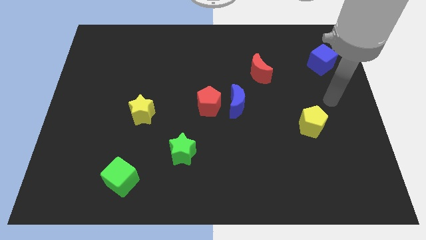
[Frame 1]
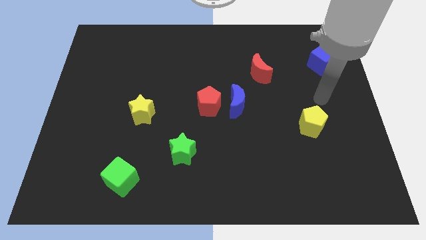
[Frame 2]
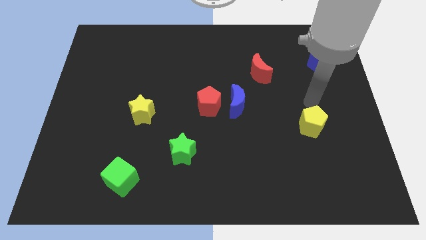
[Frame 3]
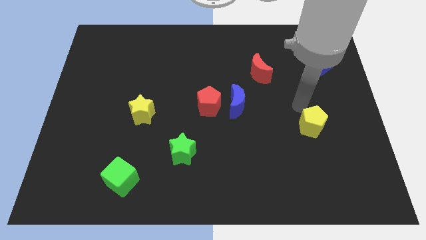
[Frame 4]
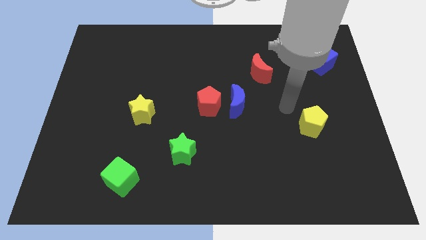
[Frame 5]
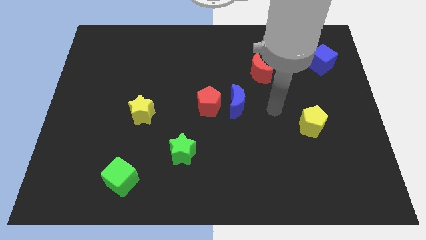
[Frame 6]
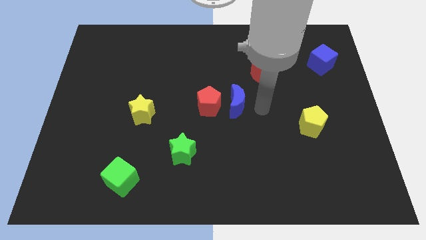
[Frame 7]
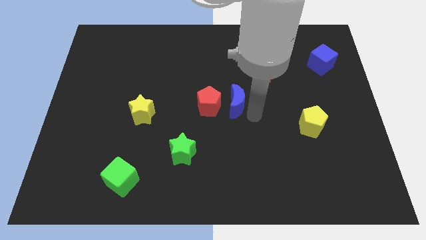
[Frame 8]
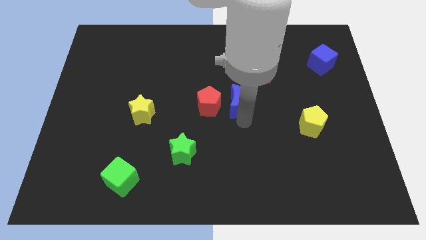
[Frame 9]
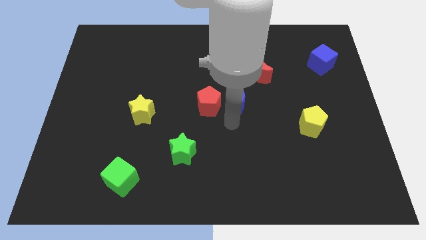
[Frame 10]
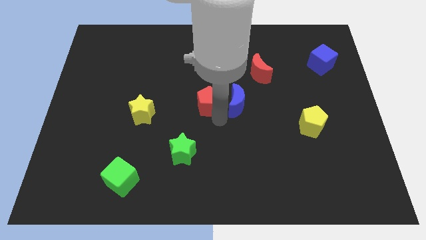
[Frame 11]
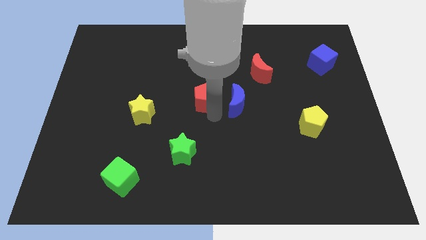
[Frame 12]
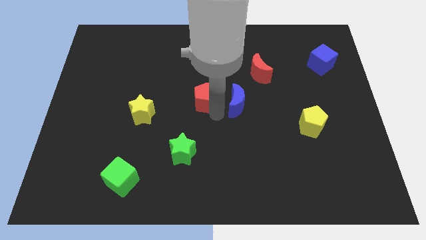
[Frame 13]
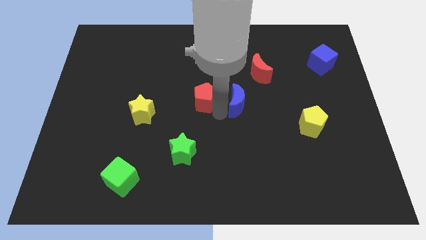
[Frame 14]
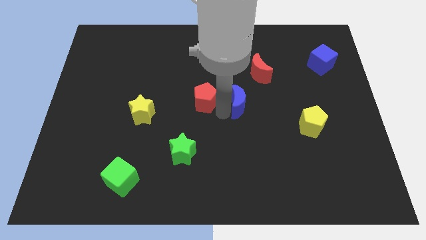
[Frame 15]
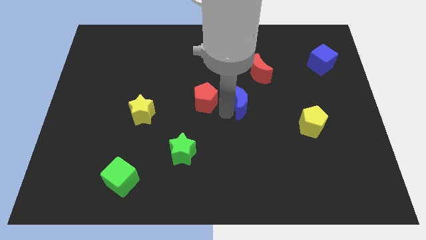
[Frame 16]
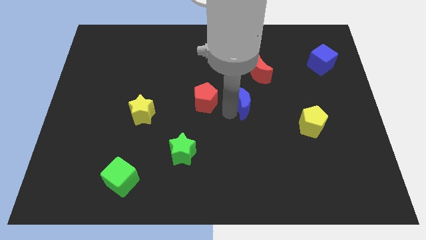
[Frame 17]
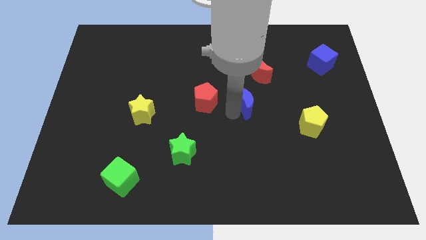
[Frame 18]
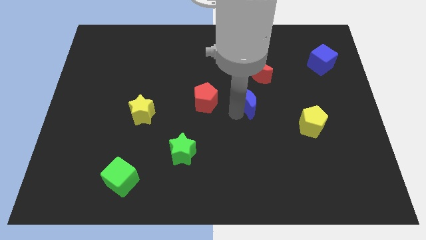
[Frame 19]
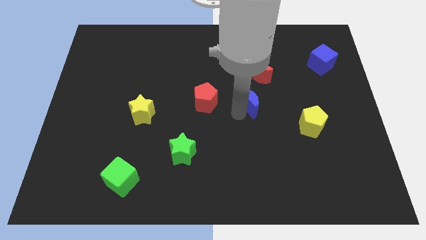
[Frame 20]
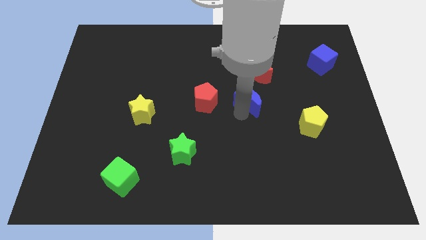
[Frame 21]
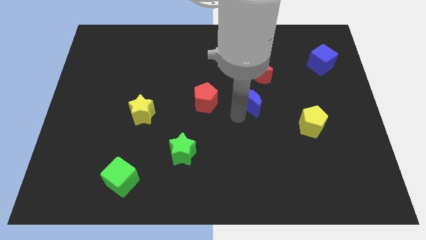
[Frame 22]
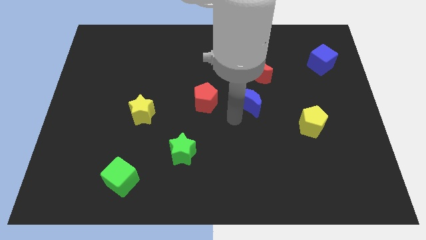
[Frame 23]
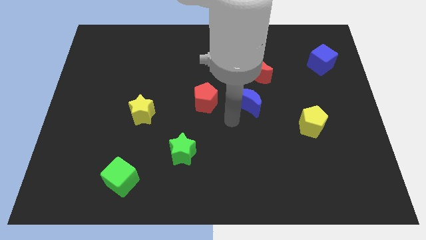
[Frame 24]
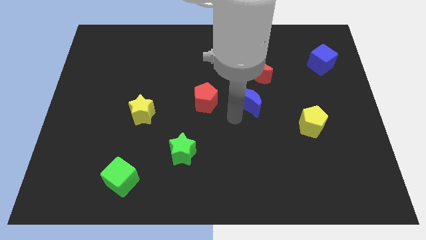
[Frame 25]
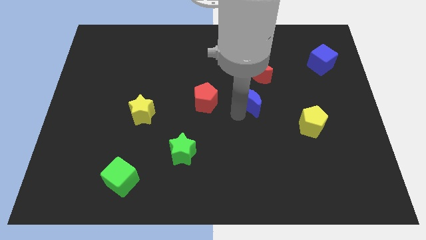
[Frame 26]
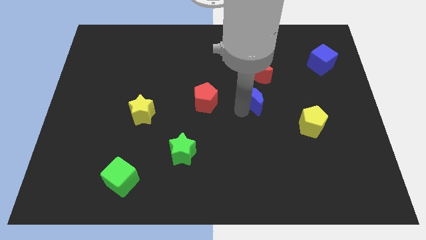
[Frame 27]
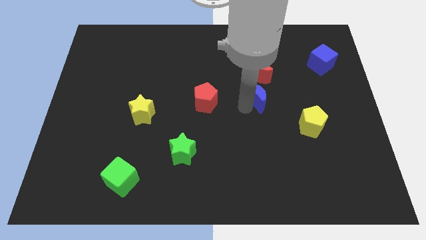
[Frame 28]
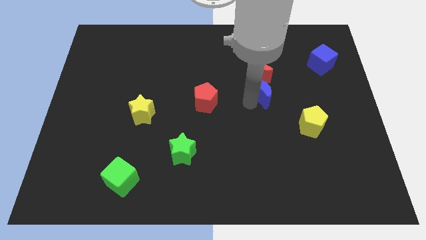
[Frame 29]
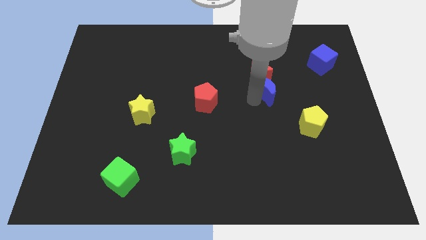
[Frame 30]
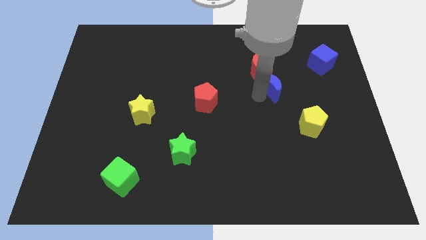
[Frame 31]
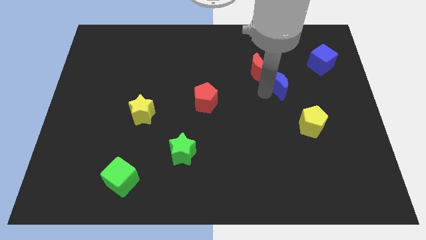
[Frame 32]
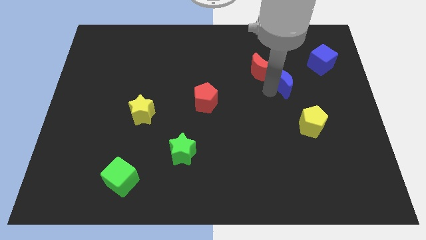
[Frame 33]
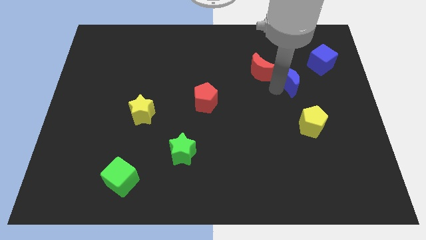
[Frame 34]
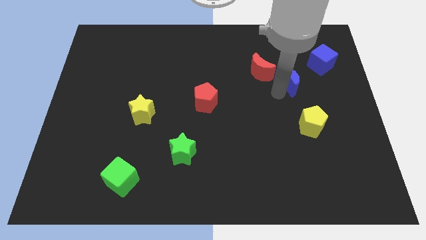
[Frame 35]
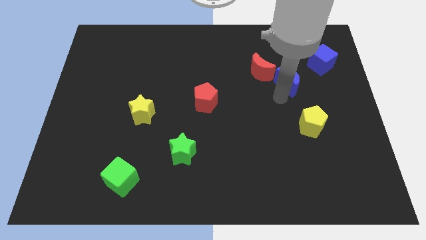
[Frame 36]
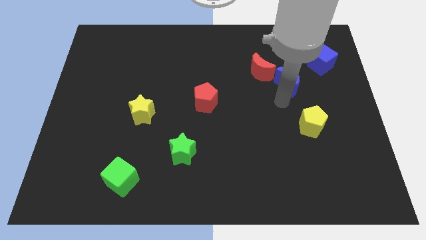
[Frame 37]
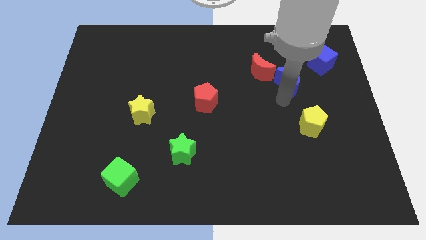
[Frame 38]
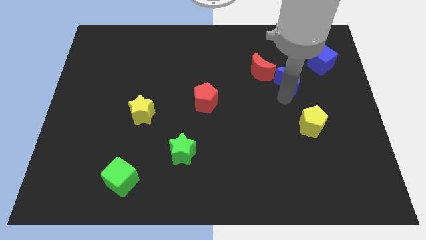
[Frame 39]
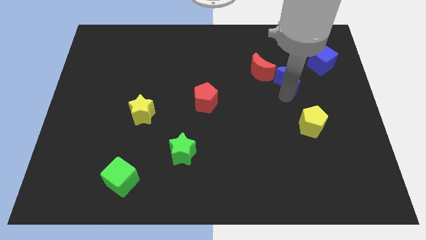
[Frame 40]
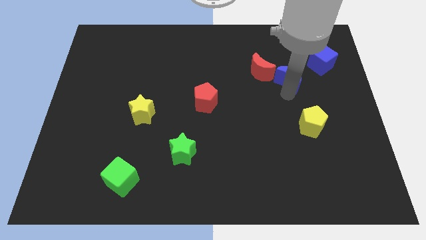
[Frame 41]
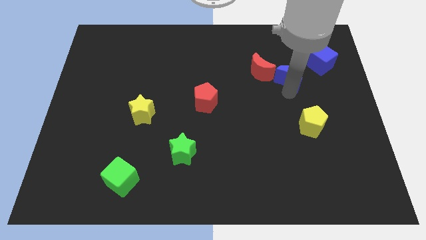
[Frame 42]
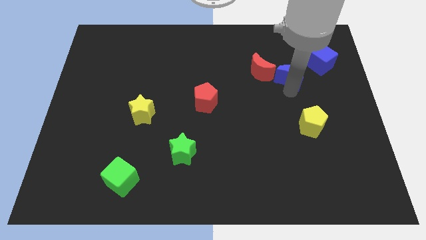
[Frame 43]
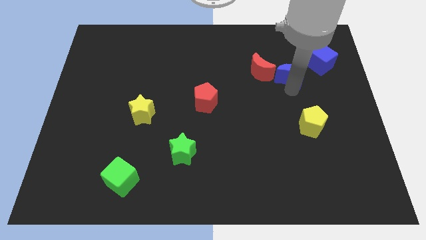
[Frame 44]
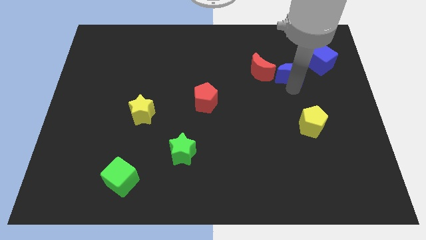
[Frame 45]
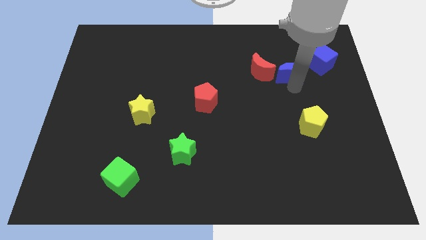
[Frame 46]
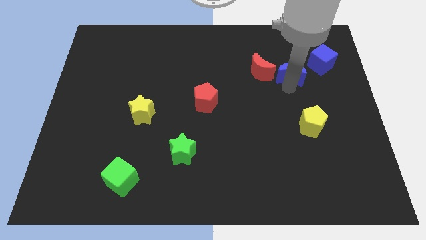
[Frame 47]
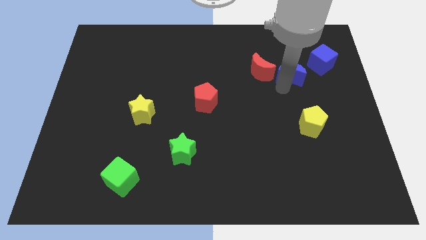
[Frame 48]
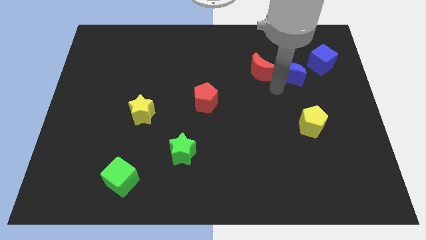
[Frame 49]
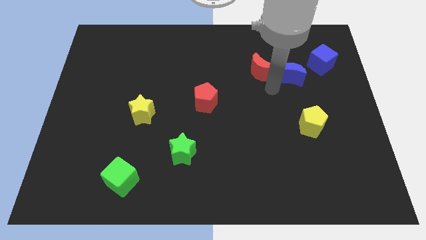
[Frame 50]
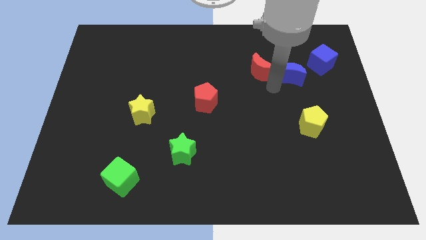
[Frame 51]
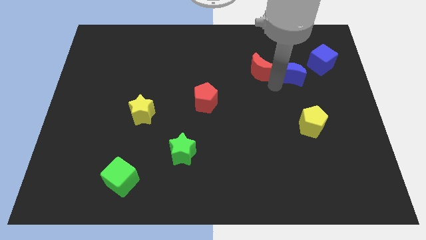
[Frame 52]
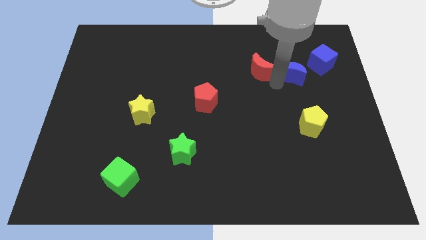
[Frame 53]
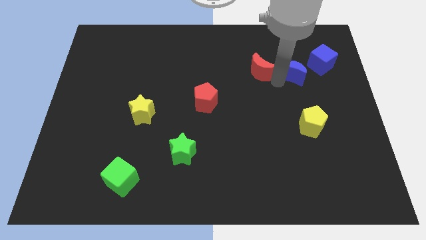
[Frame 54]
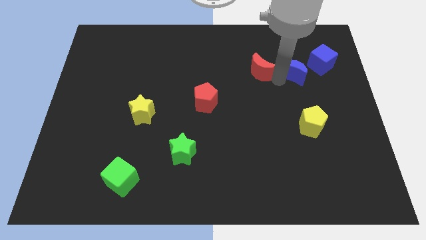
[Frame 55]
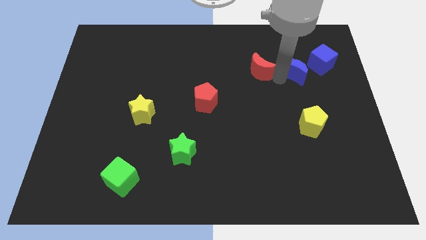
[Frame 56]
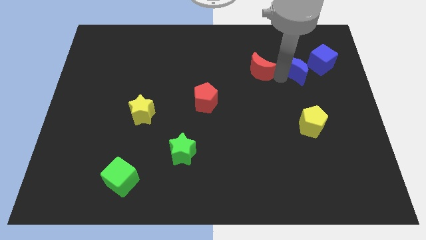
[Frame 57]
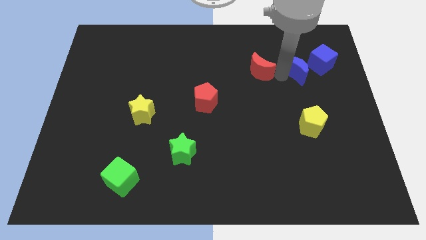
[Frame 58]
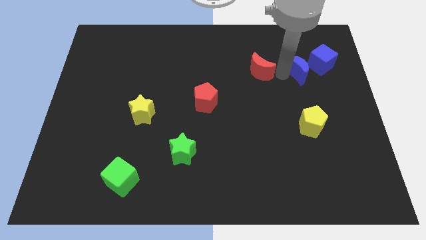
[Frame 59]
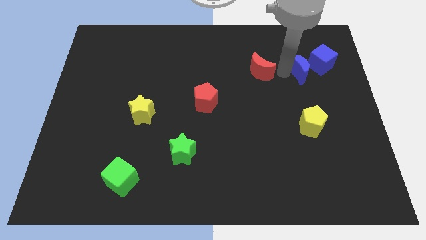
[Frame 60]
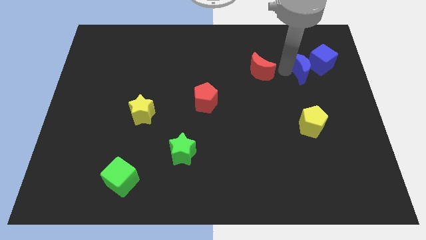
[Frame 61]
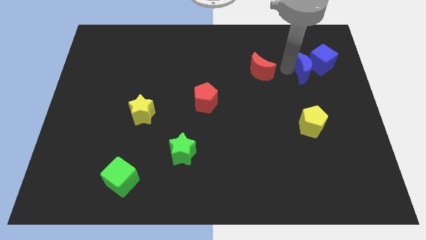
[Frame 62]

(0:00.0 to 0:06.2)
push the blue moon next to the blue cube

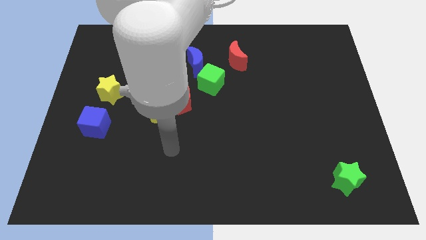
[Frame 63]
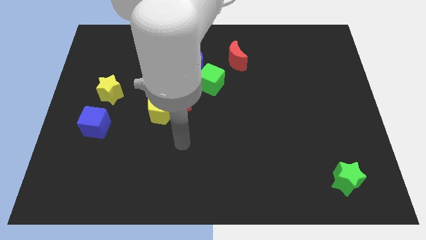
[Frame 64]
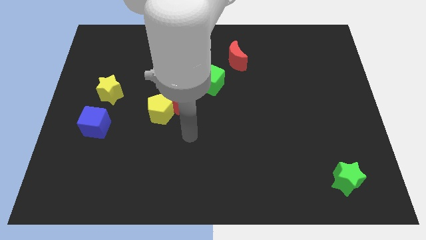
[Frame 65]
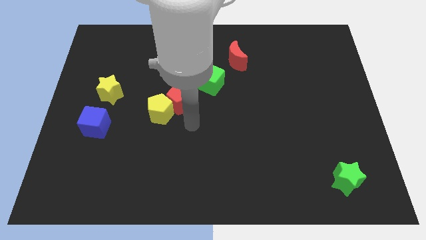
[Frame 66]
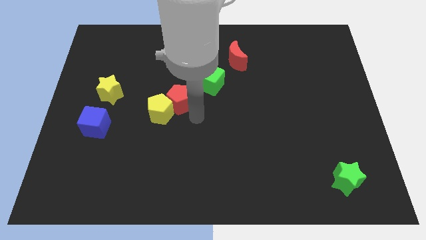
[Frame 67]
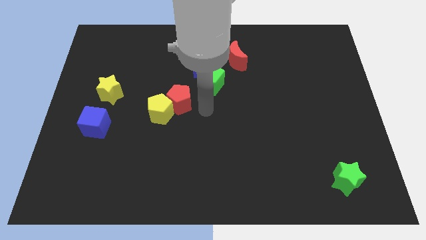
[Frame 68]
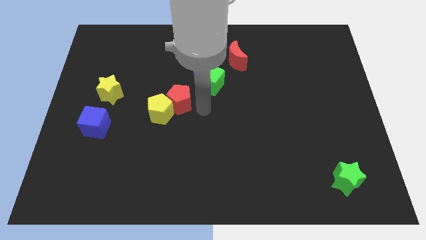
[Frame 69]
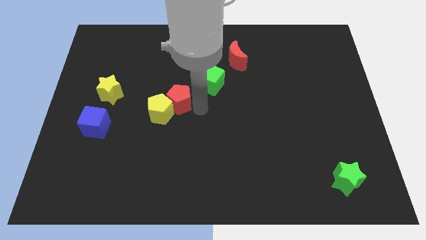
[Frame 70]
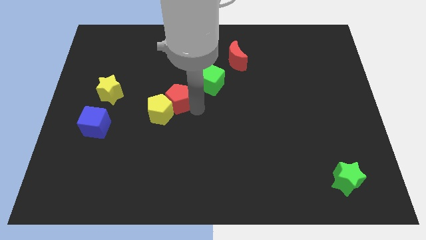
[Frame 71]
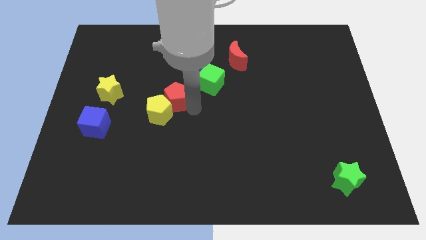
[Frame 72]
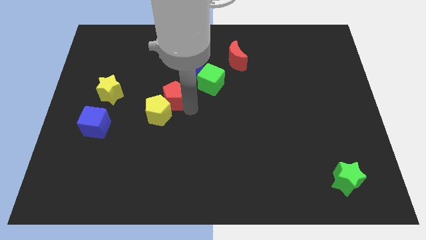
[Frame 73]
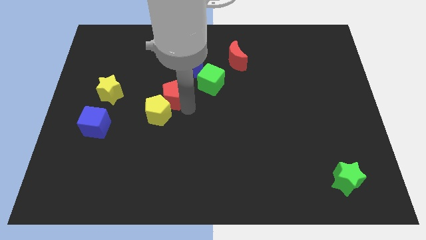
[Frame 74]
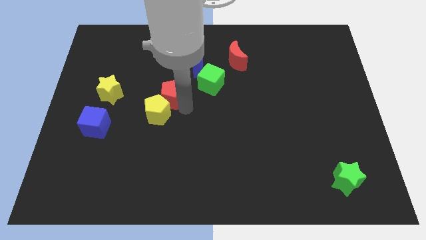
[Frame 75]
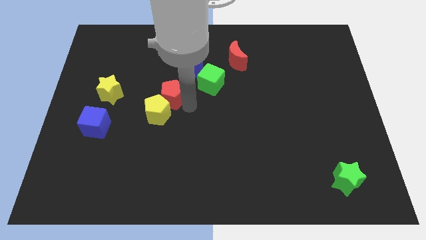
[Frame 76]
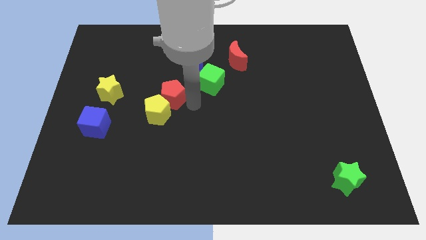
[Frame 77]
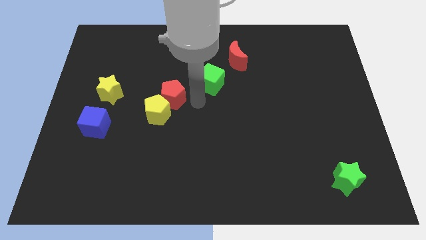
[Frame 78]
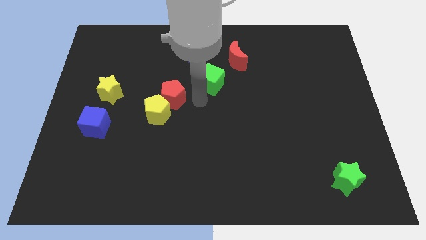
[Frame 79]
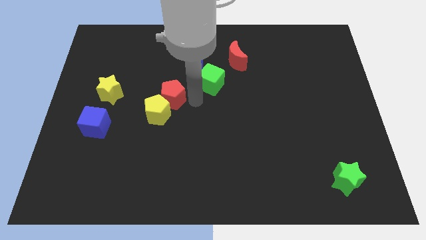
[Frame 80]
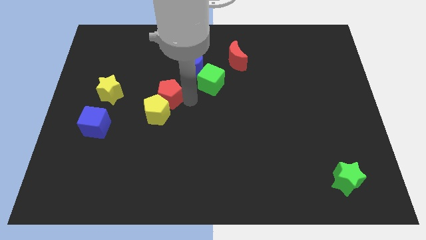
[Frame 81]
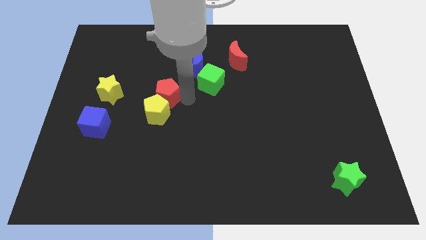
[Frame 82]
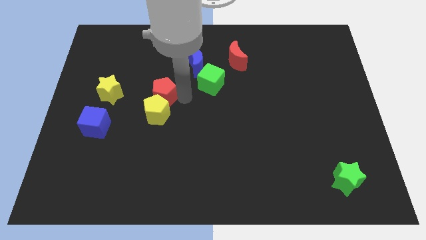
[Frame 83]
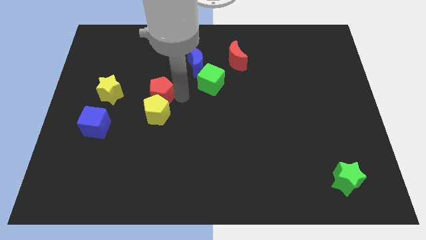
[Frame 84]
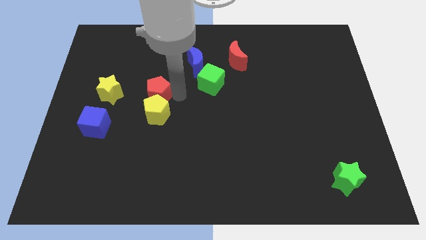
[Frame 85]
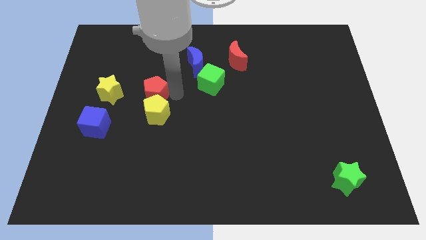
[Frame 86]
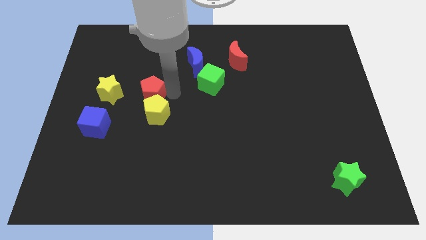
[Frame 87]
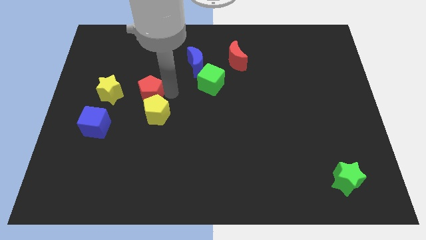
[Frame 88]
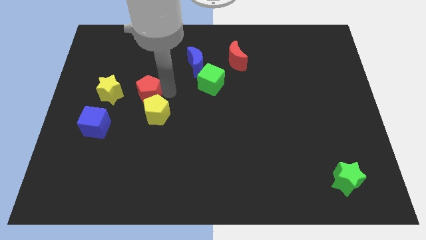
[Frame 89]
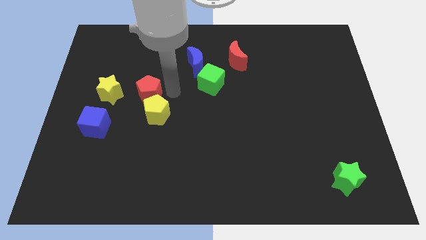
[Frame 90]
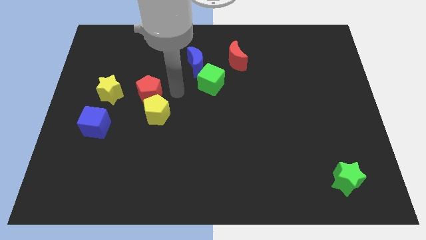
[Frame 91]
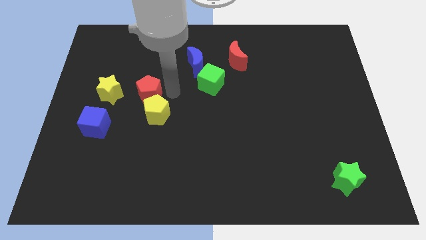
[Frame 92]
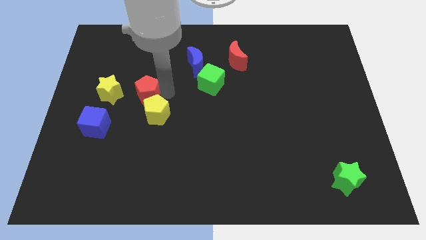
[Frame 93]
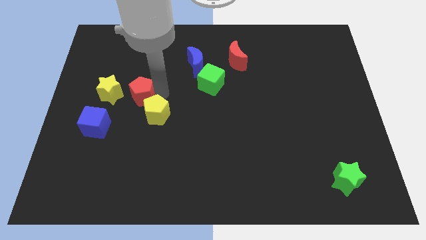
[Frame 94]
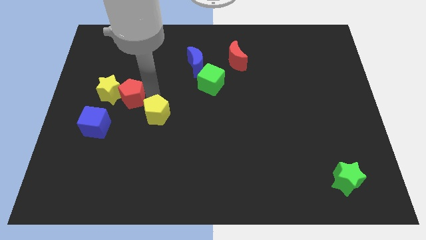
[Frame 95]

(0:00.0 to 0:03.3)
slide the red pentagon towards the yellow star
